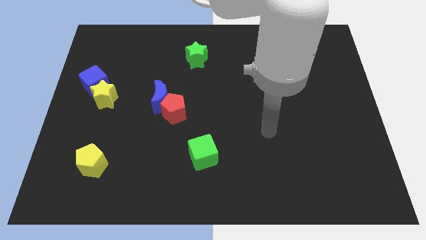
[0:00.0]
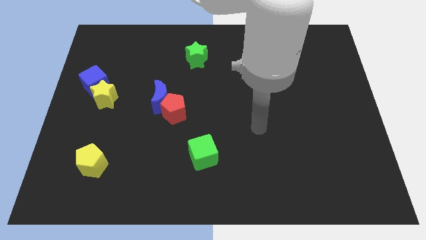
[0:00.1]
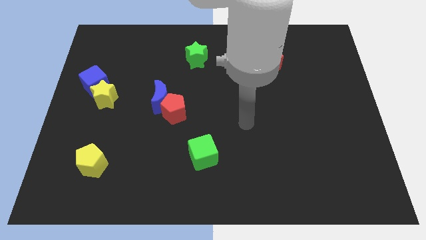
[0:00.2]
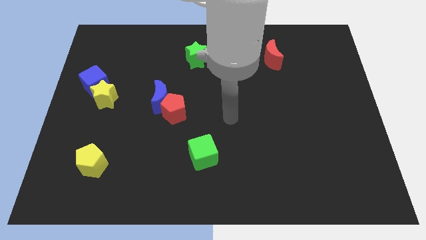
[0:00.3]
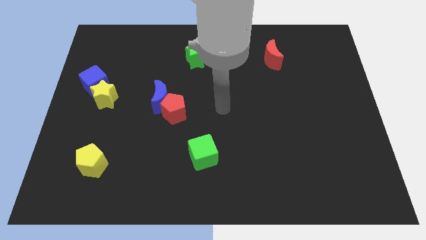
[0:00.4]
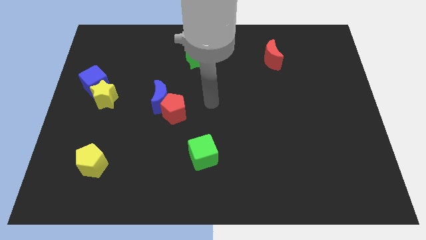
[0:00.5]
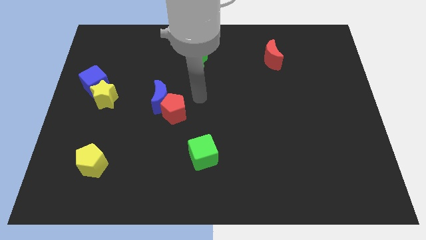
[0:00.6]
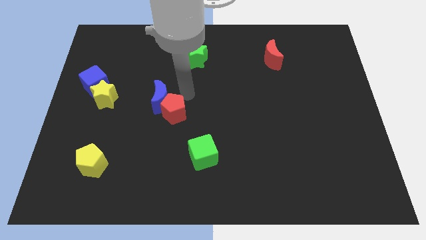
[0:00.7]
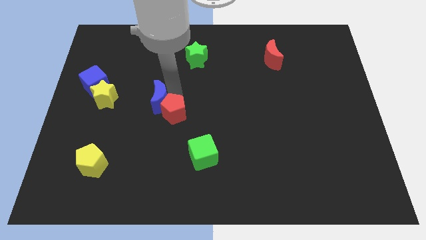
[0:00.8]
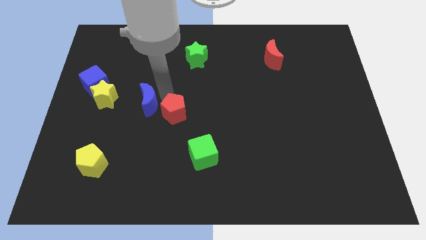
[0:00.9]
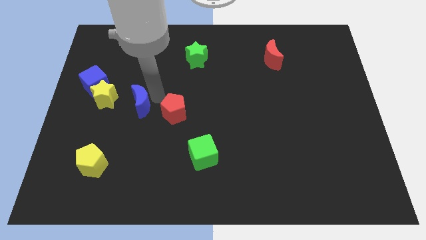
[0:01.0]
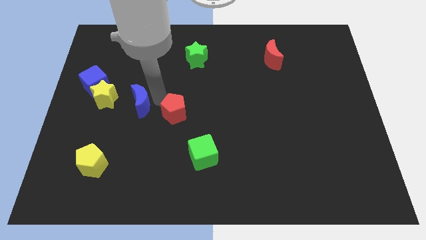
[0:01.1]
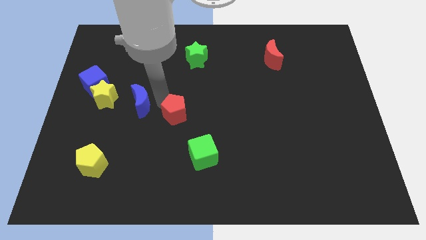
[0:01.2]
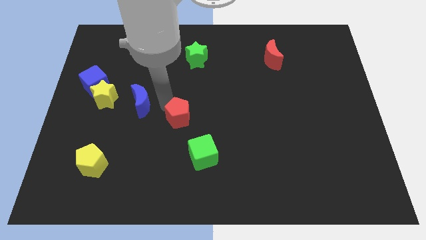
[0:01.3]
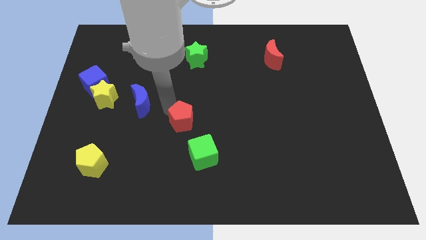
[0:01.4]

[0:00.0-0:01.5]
pull the red pentagon apart from the blue moon

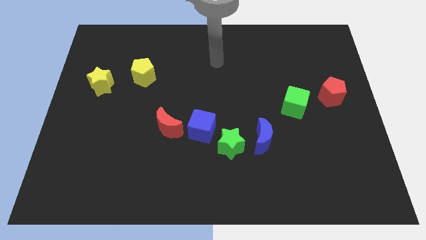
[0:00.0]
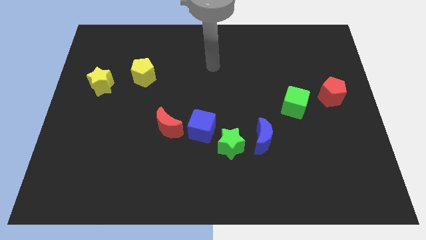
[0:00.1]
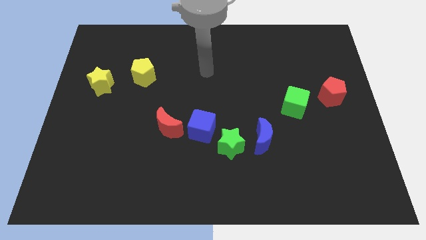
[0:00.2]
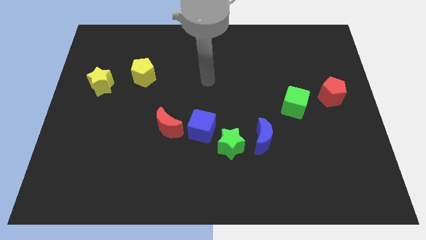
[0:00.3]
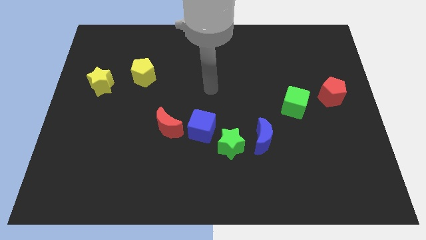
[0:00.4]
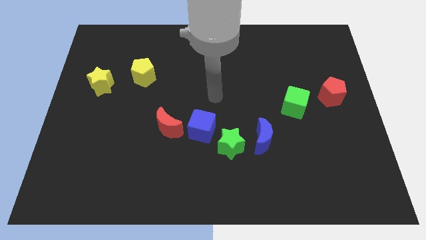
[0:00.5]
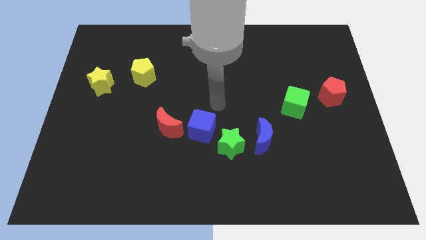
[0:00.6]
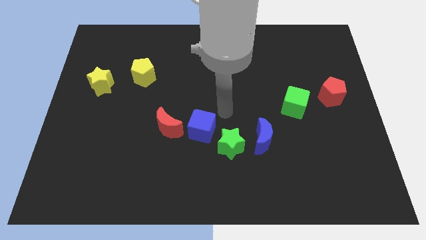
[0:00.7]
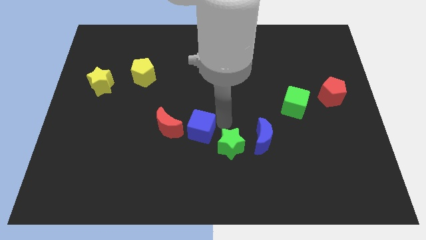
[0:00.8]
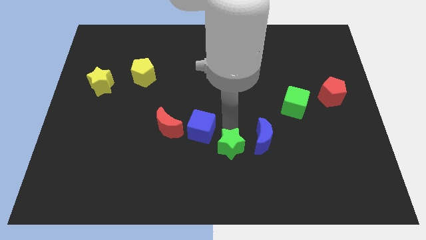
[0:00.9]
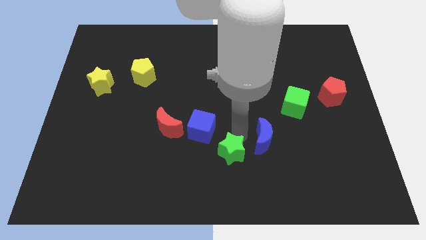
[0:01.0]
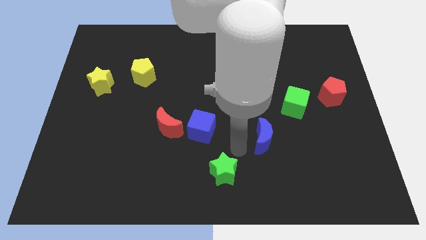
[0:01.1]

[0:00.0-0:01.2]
separate the blue moon from the green star

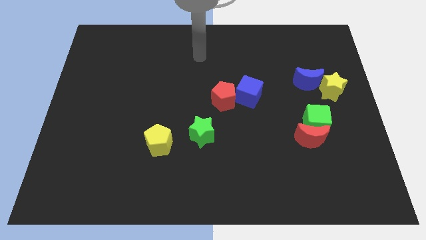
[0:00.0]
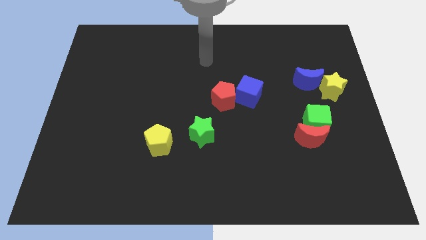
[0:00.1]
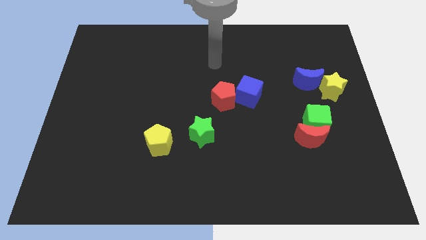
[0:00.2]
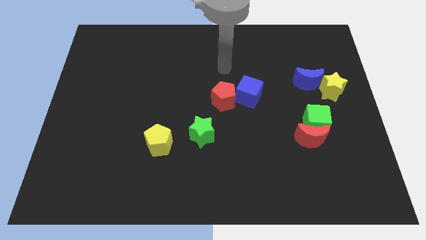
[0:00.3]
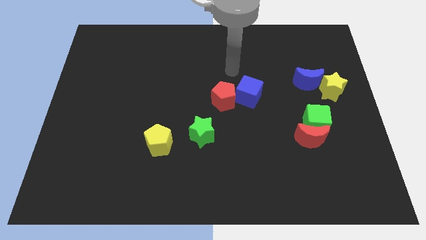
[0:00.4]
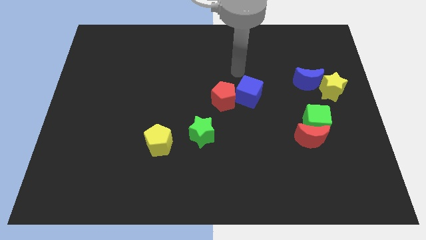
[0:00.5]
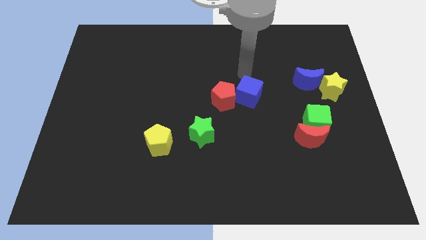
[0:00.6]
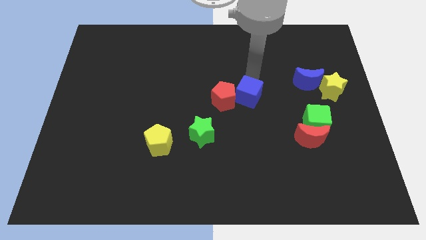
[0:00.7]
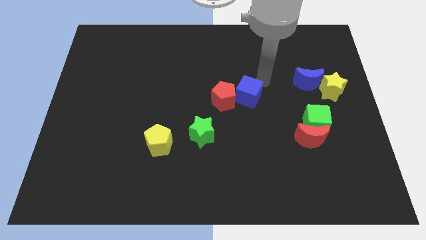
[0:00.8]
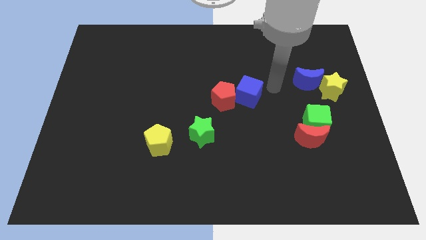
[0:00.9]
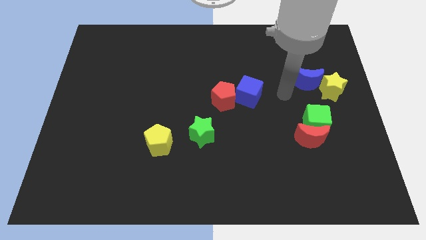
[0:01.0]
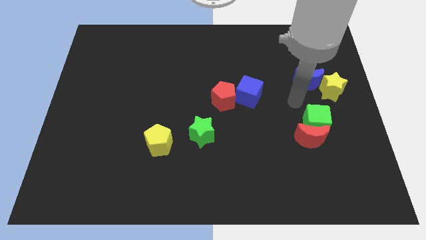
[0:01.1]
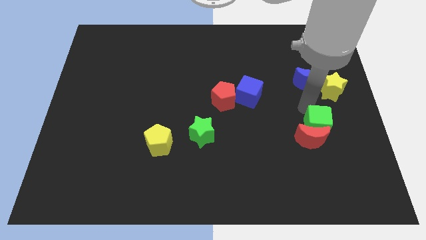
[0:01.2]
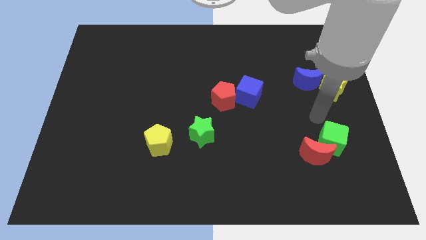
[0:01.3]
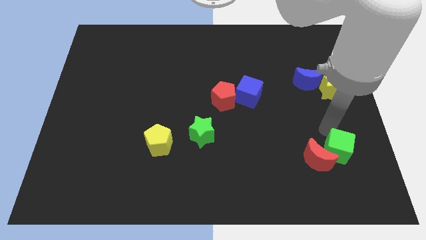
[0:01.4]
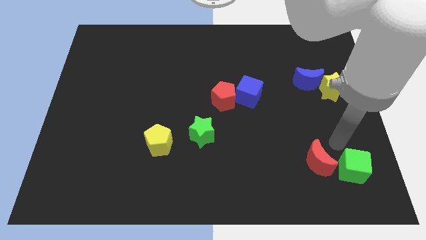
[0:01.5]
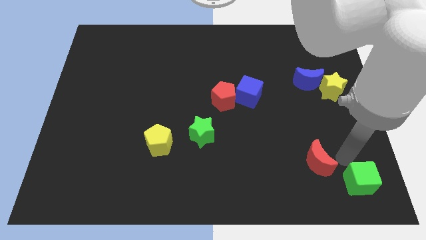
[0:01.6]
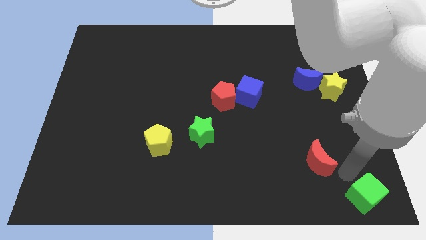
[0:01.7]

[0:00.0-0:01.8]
move the red moon away from the green cube

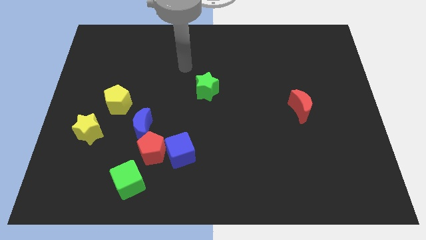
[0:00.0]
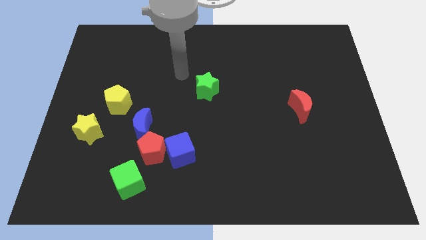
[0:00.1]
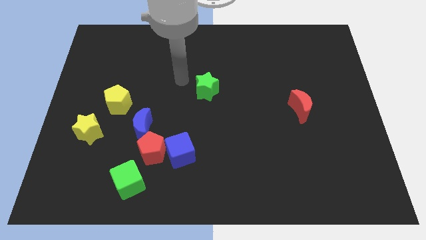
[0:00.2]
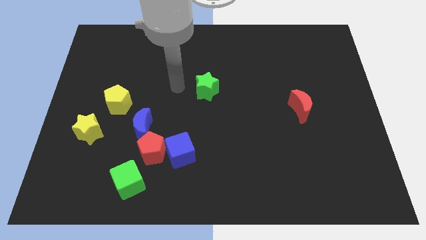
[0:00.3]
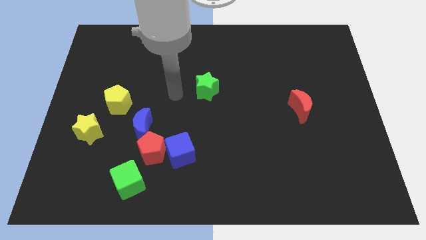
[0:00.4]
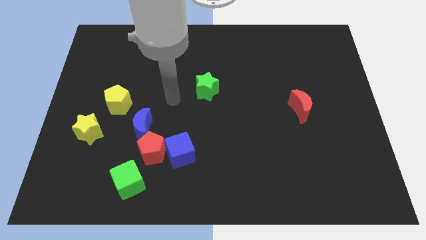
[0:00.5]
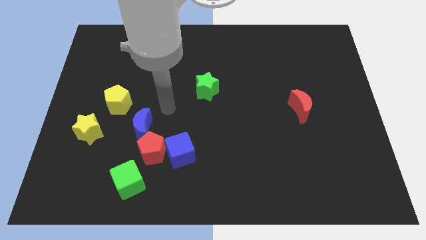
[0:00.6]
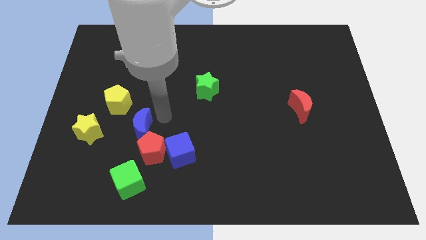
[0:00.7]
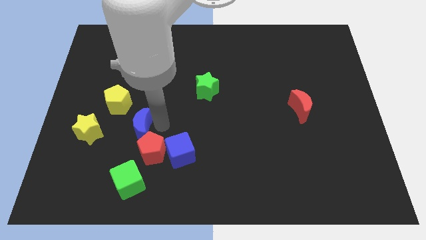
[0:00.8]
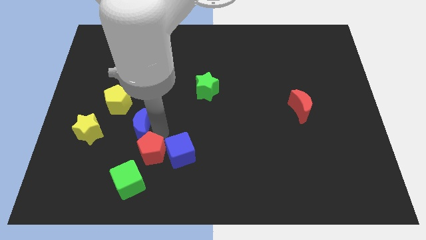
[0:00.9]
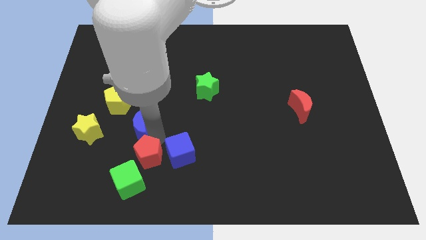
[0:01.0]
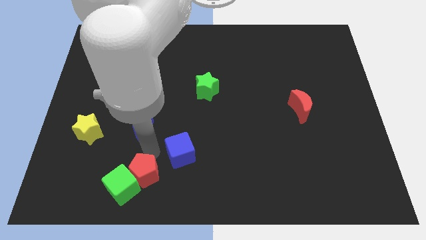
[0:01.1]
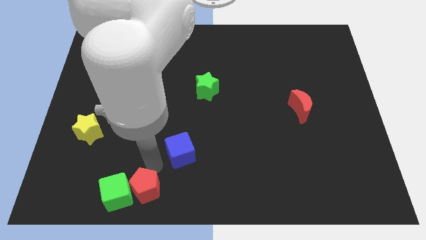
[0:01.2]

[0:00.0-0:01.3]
move the blue cube away from the red pentagon

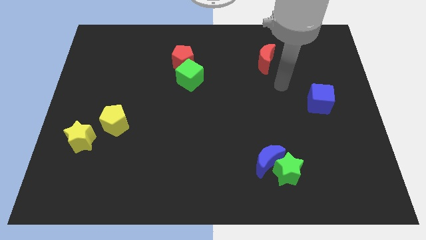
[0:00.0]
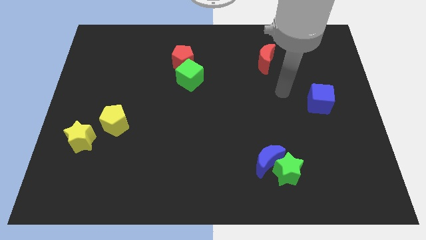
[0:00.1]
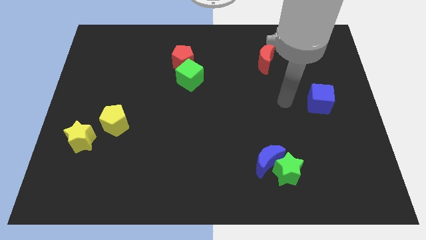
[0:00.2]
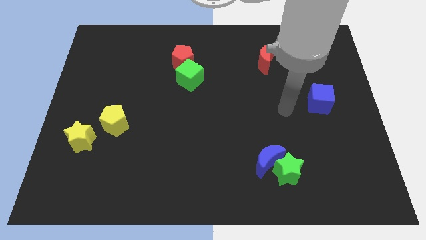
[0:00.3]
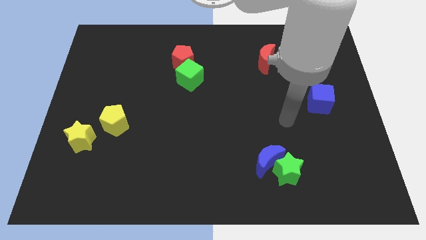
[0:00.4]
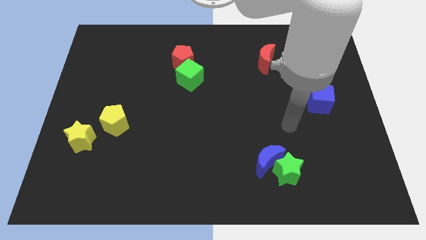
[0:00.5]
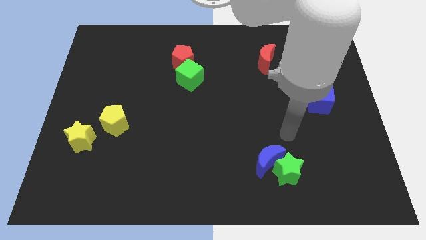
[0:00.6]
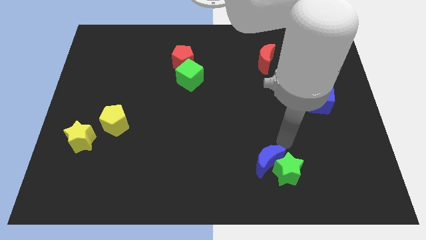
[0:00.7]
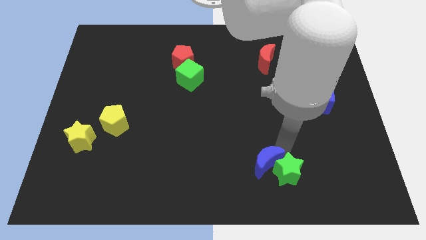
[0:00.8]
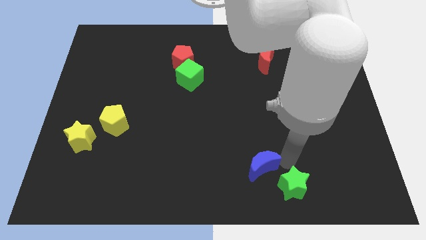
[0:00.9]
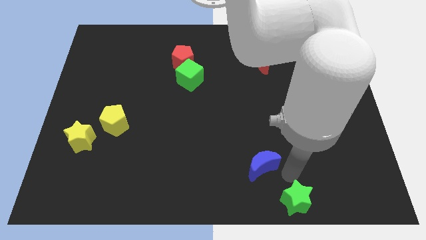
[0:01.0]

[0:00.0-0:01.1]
pull the blue moon apart from the green star

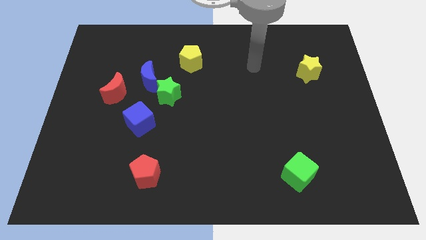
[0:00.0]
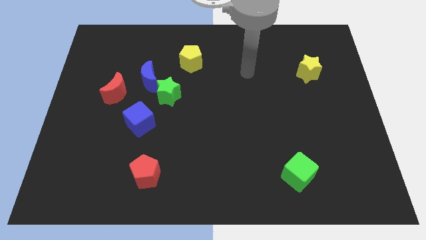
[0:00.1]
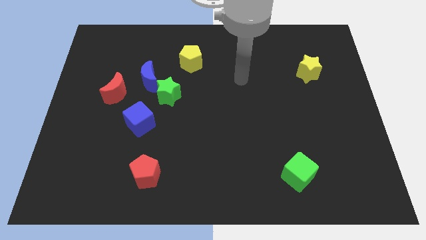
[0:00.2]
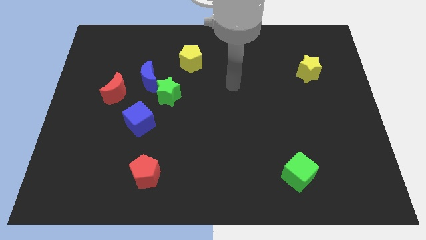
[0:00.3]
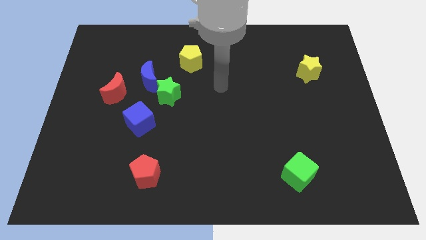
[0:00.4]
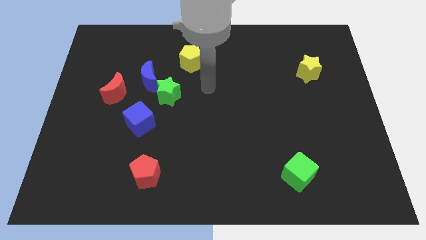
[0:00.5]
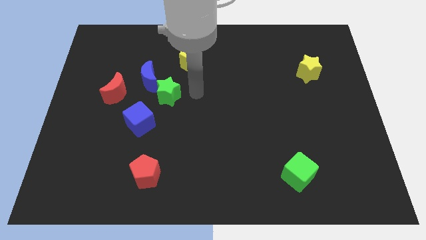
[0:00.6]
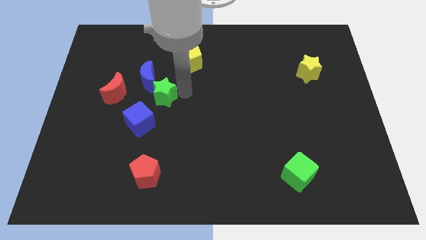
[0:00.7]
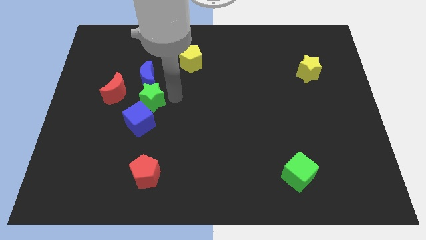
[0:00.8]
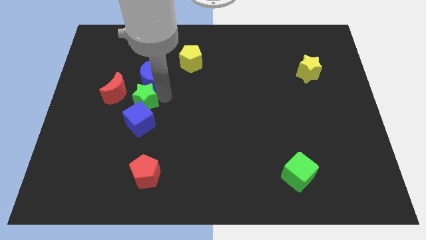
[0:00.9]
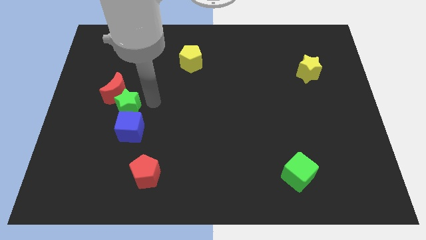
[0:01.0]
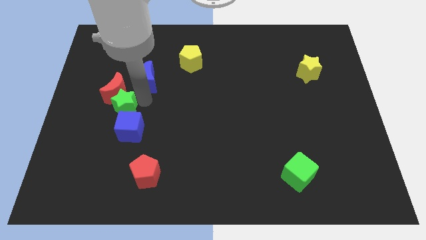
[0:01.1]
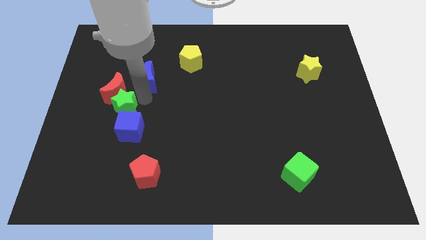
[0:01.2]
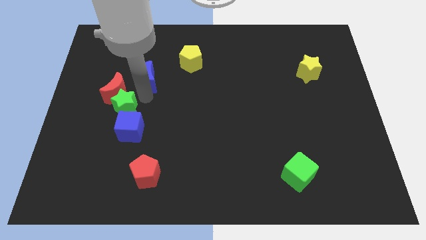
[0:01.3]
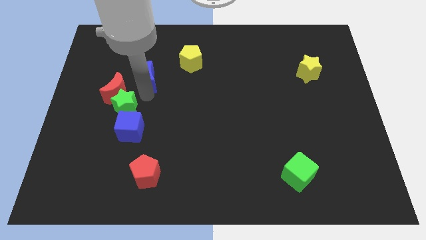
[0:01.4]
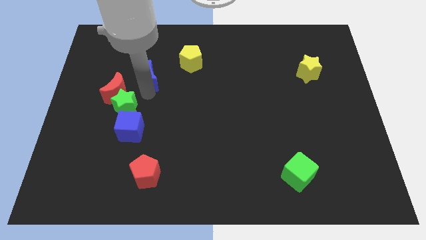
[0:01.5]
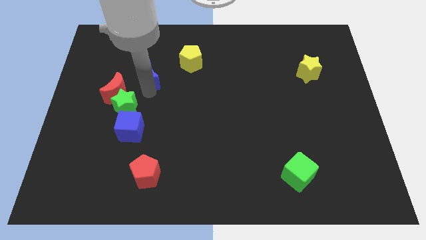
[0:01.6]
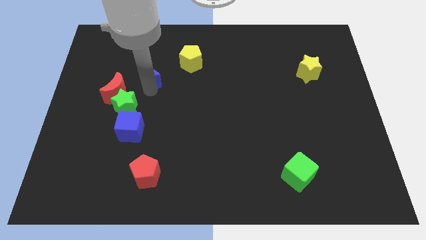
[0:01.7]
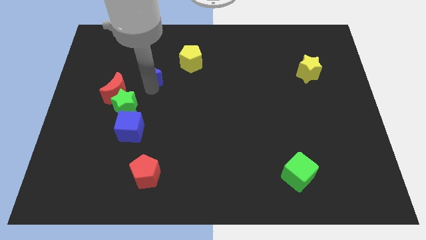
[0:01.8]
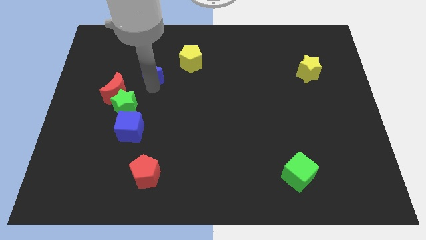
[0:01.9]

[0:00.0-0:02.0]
pull the blue moon apart from the green star and red moon
